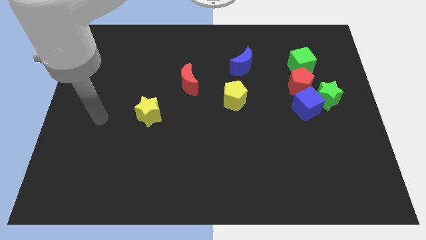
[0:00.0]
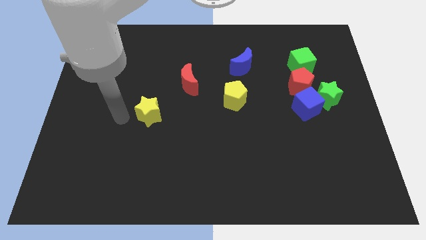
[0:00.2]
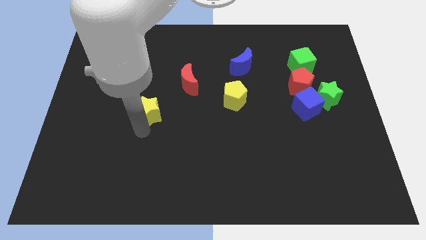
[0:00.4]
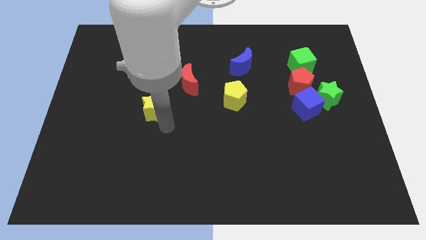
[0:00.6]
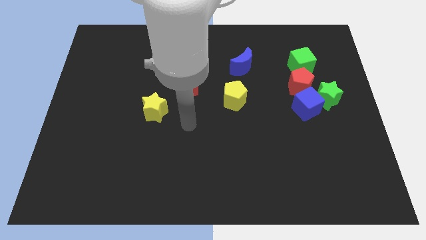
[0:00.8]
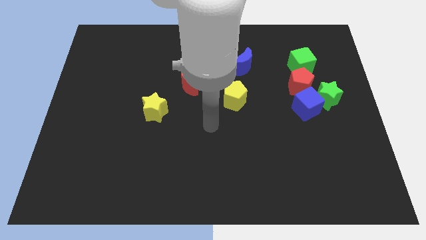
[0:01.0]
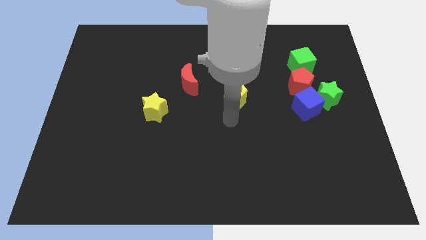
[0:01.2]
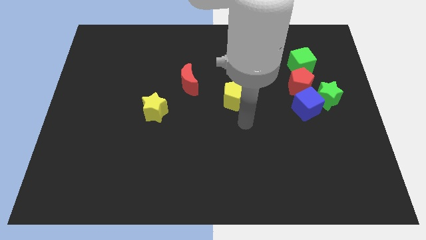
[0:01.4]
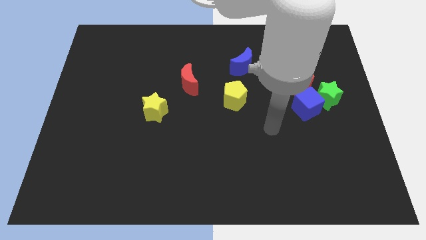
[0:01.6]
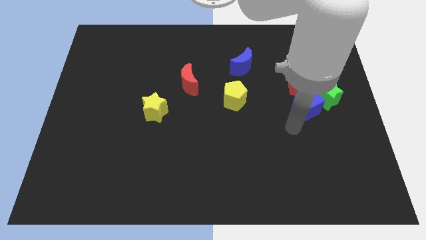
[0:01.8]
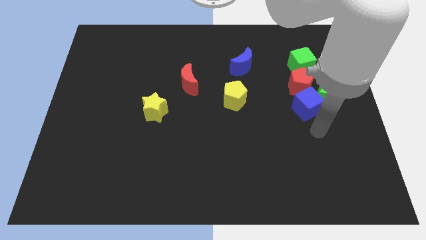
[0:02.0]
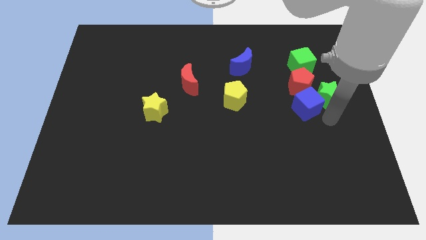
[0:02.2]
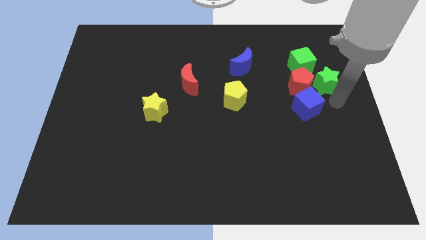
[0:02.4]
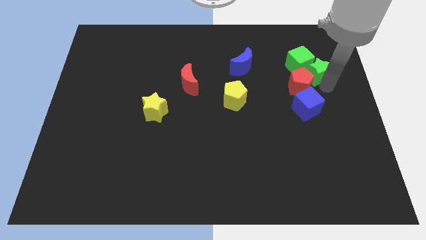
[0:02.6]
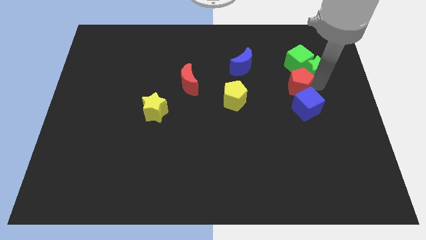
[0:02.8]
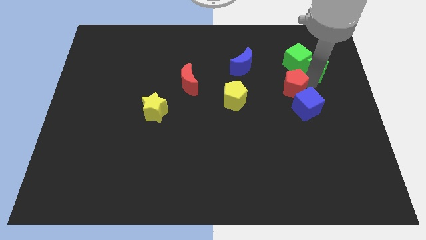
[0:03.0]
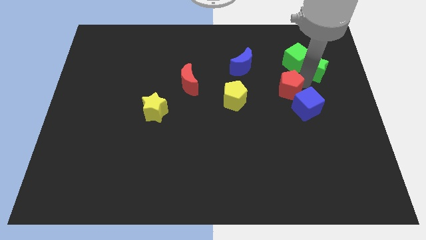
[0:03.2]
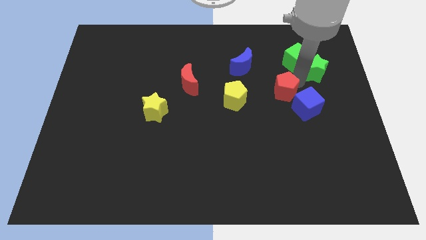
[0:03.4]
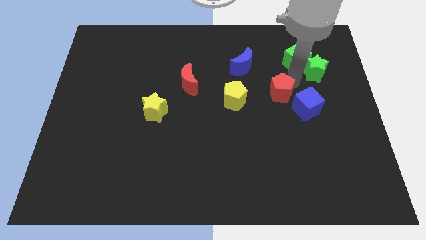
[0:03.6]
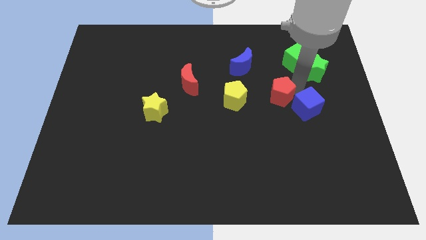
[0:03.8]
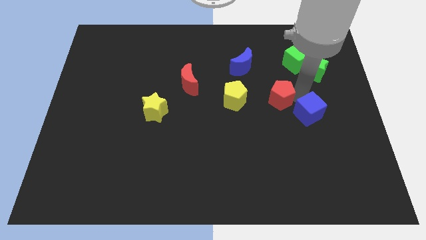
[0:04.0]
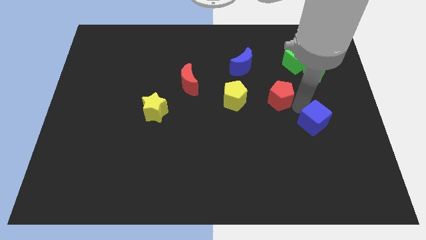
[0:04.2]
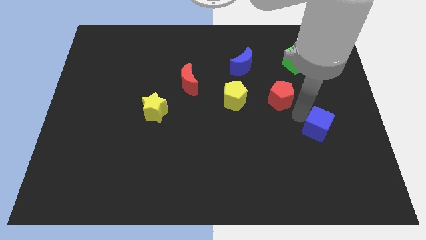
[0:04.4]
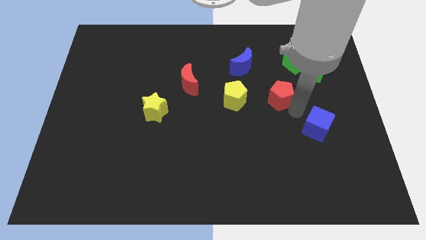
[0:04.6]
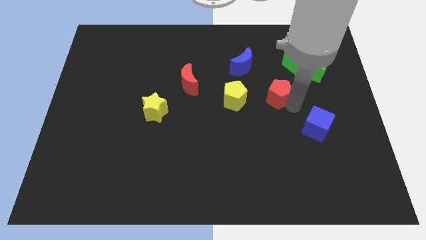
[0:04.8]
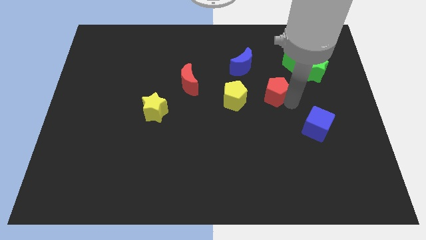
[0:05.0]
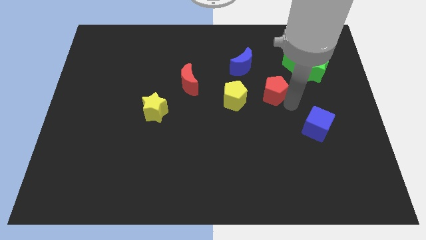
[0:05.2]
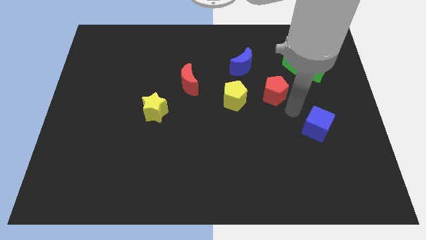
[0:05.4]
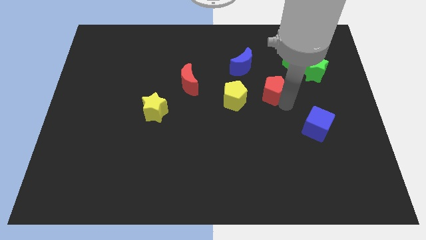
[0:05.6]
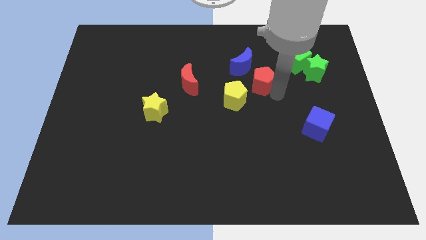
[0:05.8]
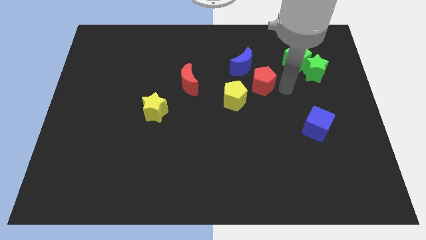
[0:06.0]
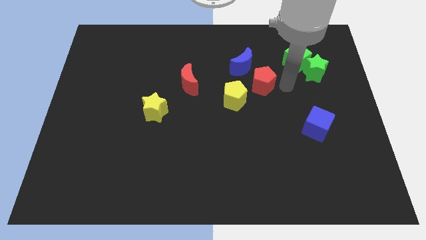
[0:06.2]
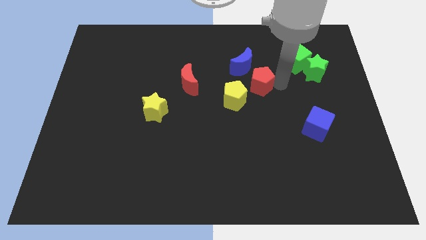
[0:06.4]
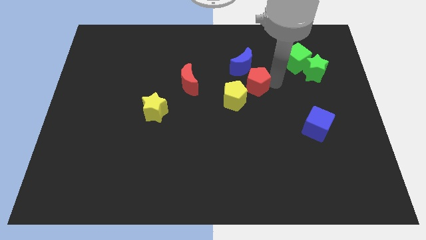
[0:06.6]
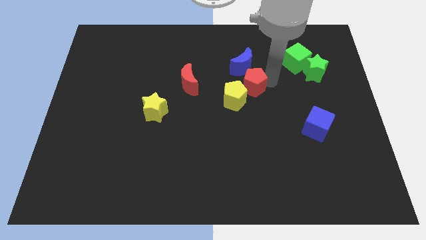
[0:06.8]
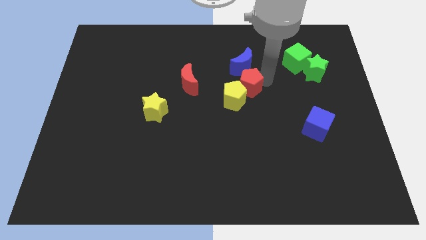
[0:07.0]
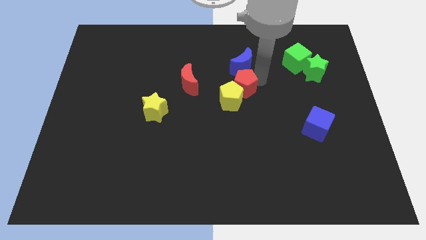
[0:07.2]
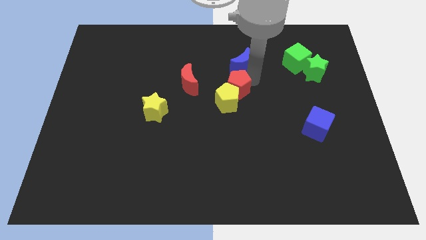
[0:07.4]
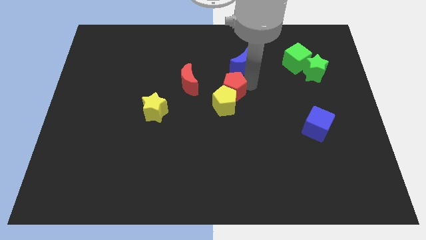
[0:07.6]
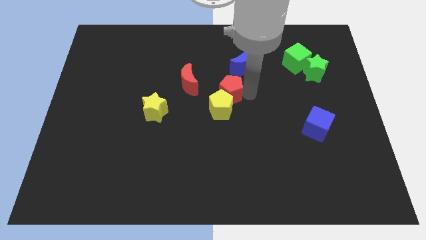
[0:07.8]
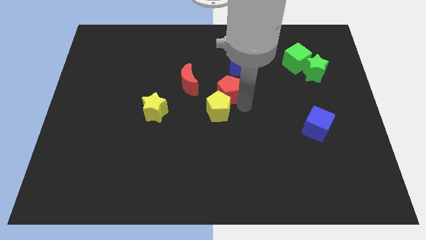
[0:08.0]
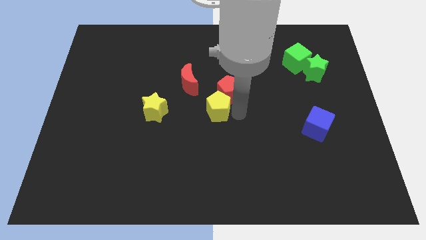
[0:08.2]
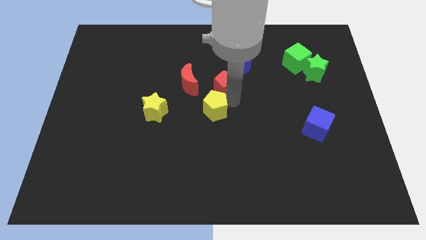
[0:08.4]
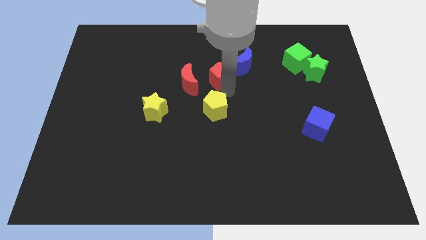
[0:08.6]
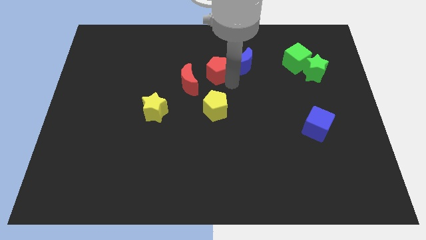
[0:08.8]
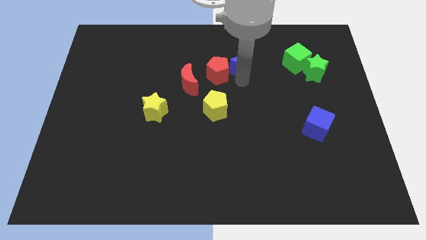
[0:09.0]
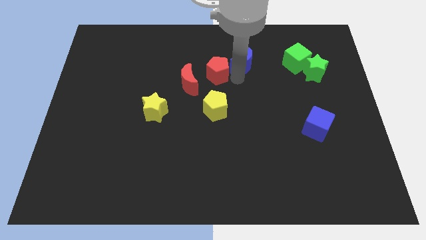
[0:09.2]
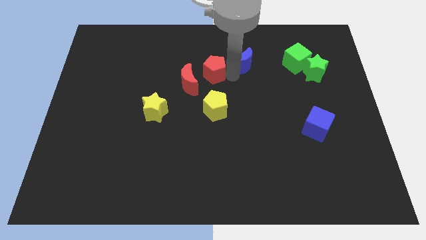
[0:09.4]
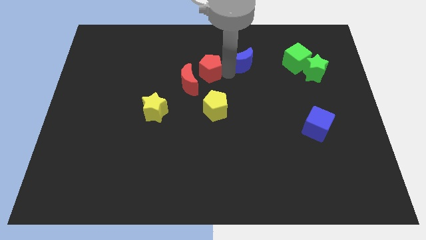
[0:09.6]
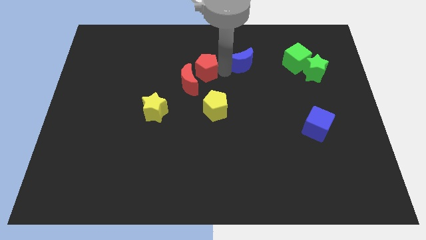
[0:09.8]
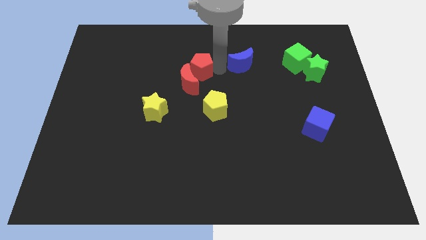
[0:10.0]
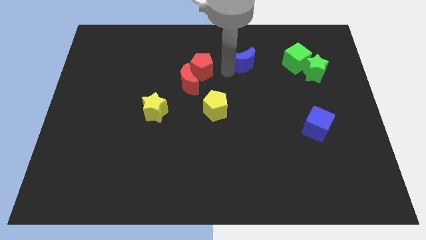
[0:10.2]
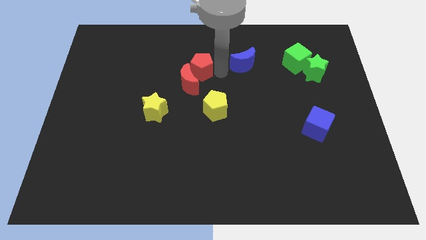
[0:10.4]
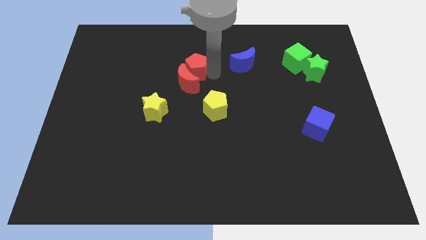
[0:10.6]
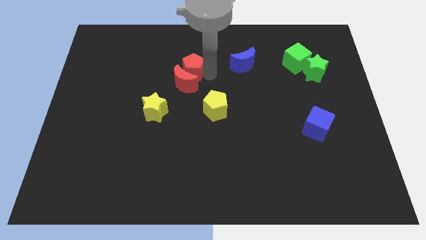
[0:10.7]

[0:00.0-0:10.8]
push the red pentagon diagonally up and to the left of the red moon

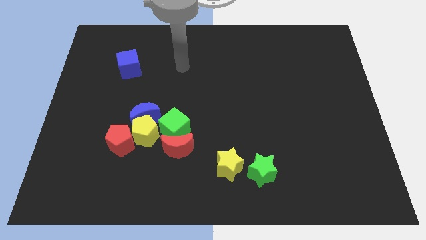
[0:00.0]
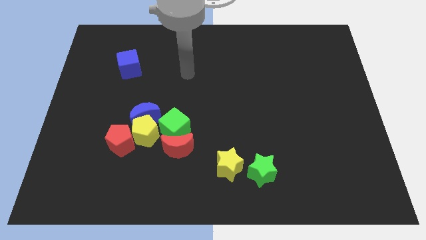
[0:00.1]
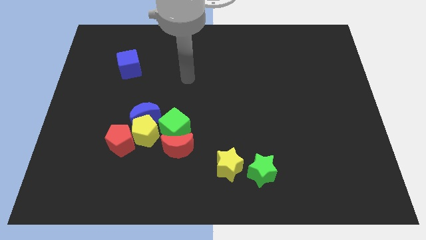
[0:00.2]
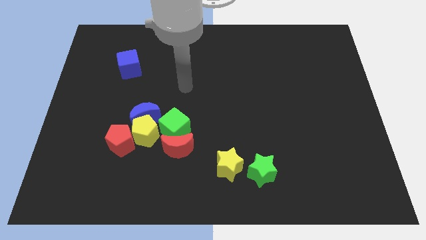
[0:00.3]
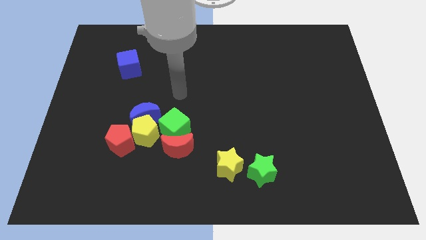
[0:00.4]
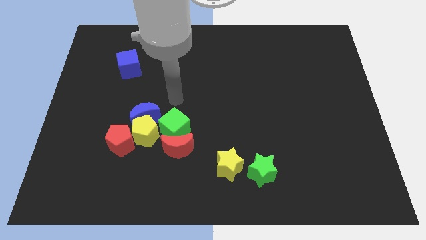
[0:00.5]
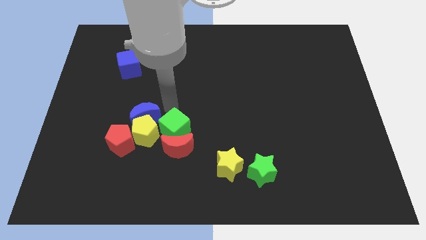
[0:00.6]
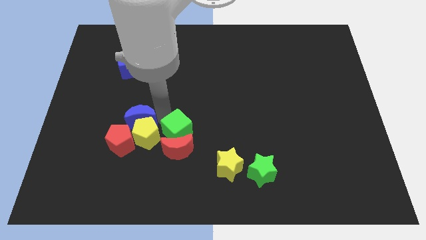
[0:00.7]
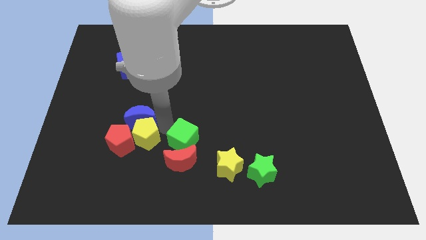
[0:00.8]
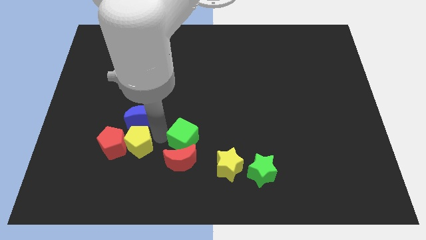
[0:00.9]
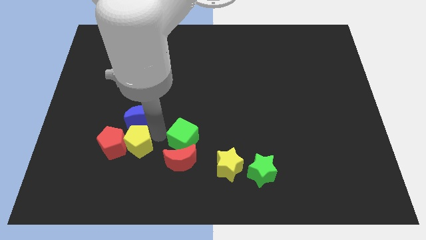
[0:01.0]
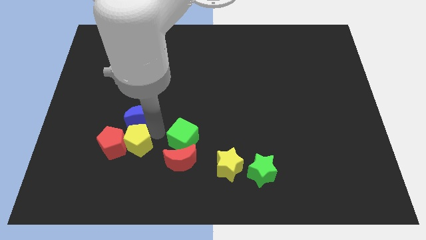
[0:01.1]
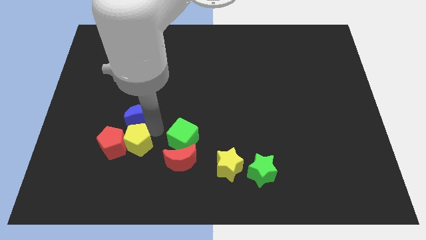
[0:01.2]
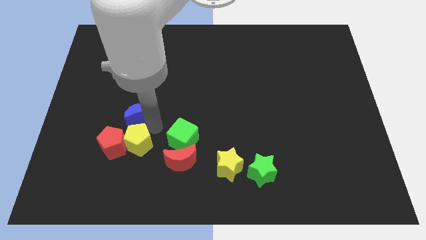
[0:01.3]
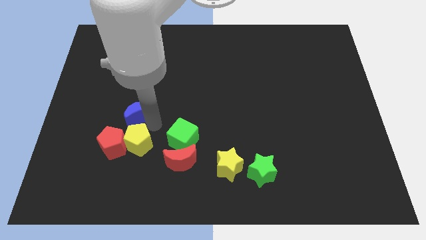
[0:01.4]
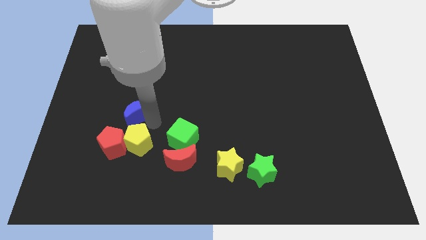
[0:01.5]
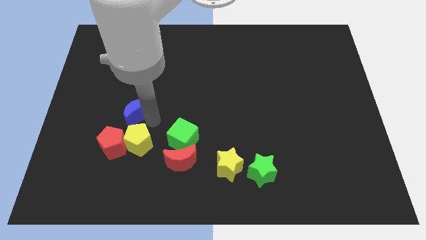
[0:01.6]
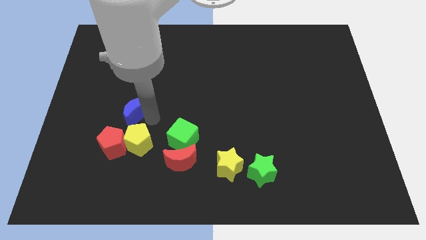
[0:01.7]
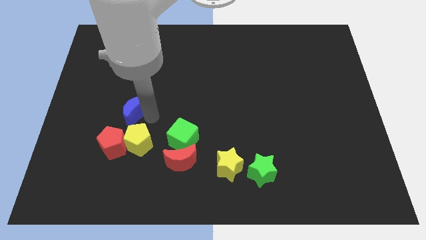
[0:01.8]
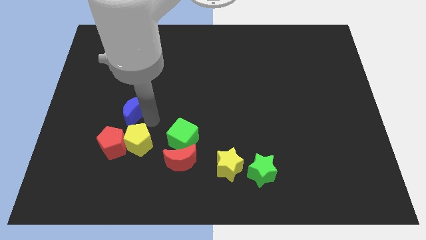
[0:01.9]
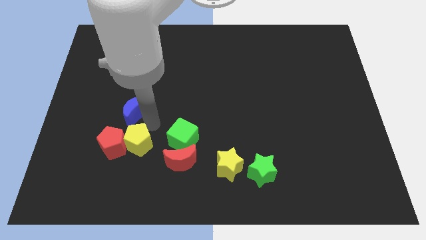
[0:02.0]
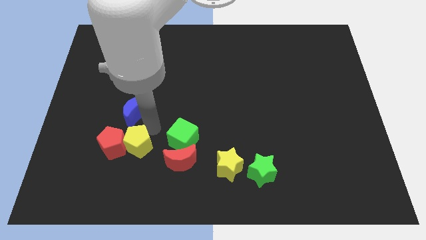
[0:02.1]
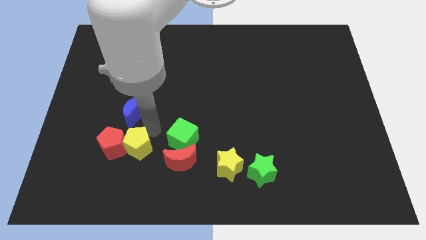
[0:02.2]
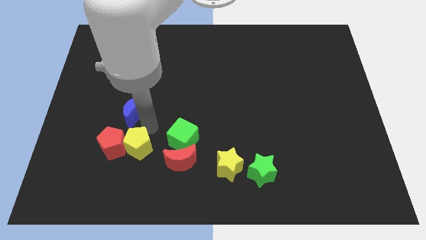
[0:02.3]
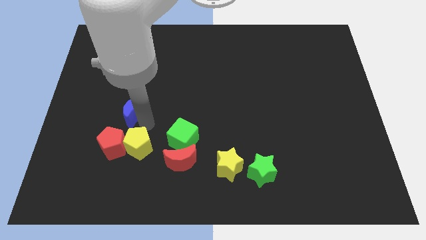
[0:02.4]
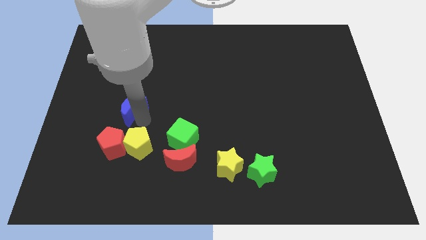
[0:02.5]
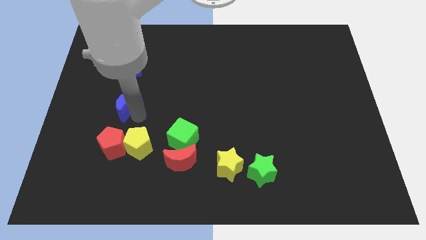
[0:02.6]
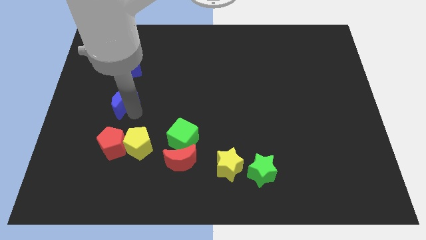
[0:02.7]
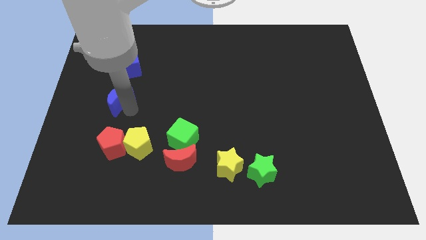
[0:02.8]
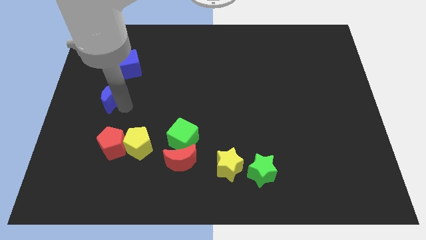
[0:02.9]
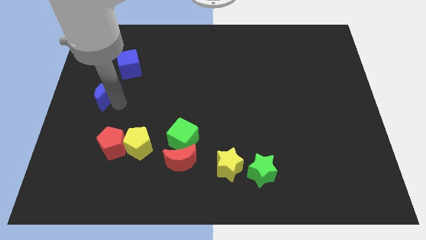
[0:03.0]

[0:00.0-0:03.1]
push the blue moon to the bottom left of the blue cube
